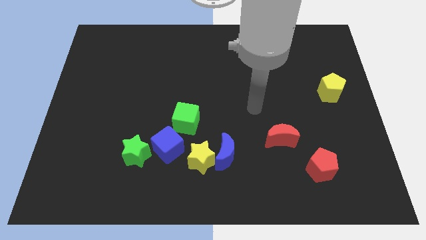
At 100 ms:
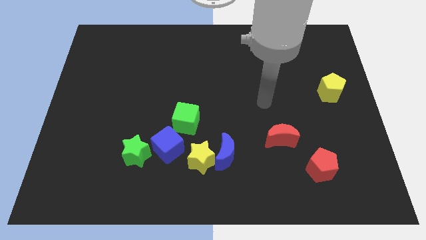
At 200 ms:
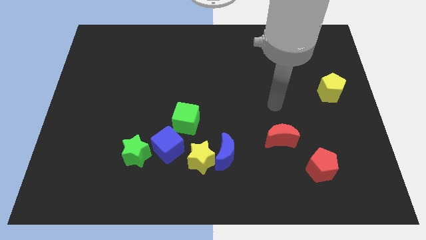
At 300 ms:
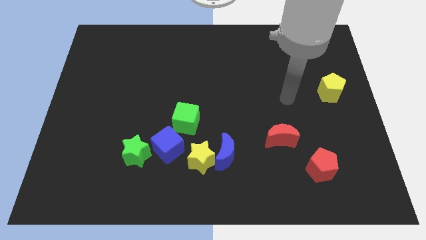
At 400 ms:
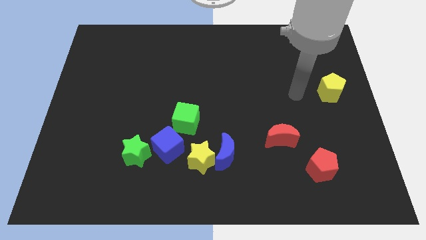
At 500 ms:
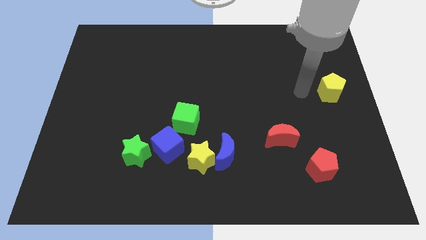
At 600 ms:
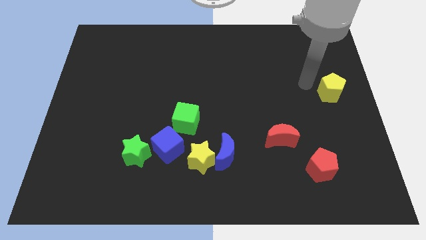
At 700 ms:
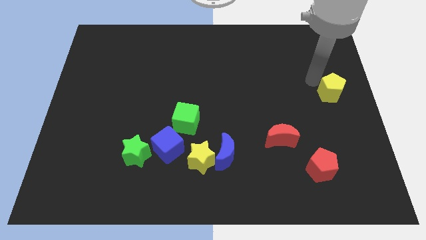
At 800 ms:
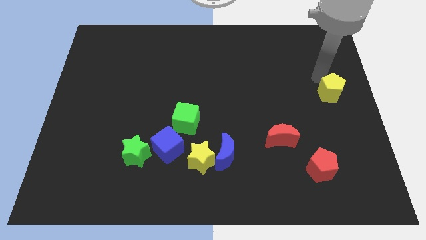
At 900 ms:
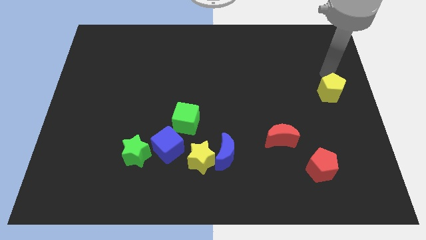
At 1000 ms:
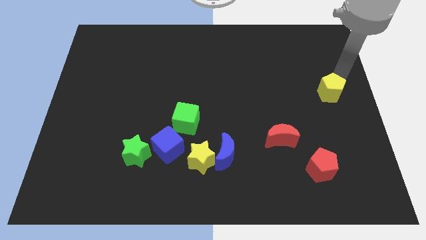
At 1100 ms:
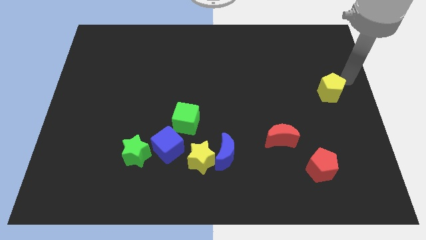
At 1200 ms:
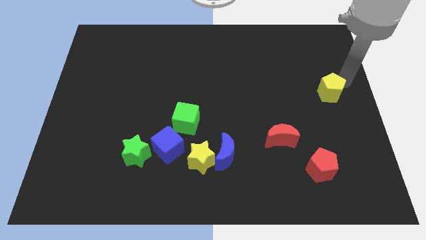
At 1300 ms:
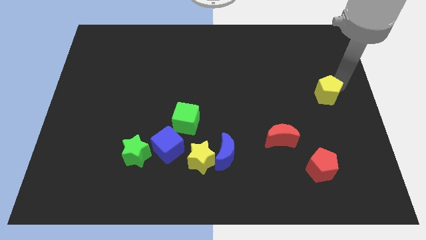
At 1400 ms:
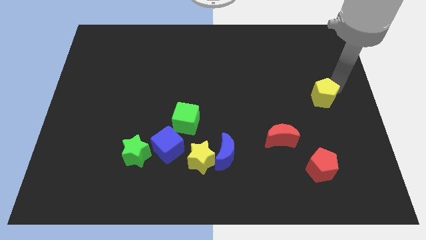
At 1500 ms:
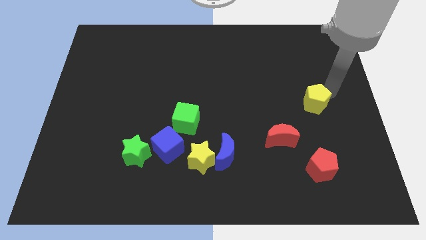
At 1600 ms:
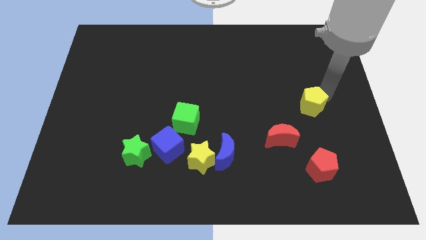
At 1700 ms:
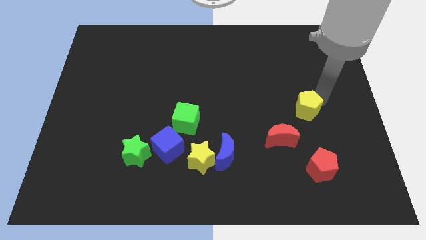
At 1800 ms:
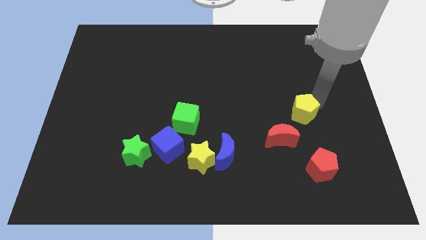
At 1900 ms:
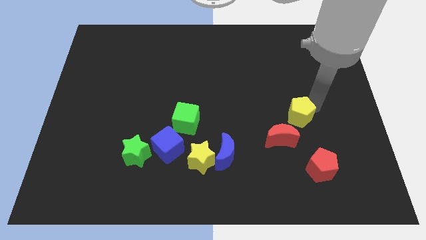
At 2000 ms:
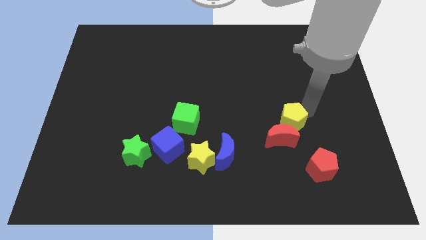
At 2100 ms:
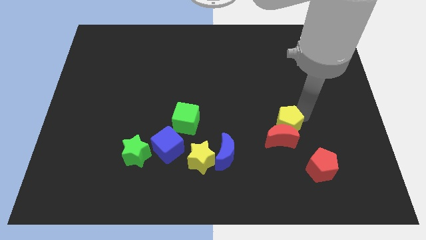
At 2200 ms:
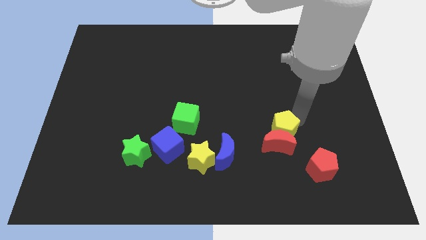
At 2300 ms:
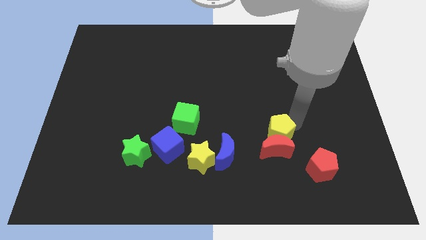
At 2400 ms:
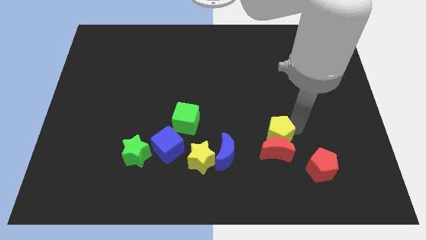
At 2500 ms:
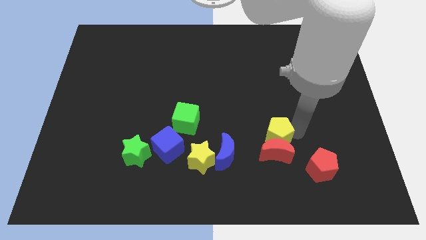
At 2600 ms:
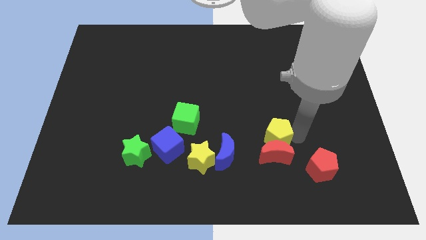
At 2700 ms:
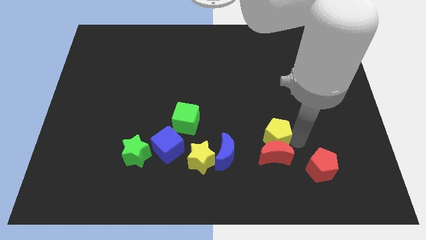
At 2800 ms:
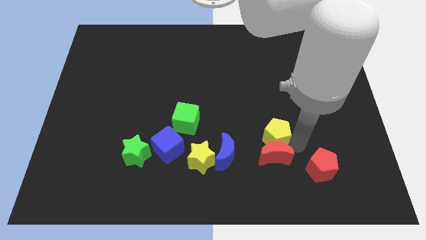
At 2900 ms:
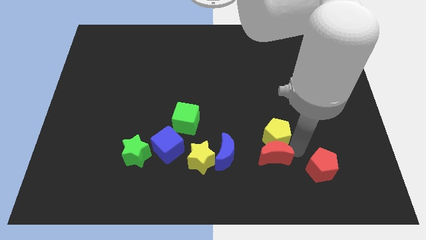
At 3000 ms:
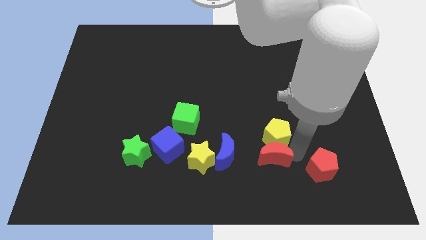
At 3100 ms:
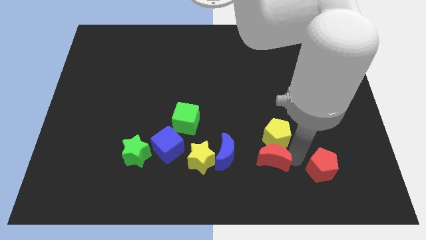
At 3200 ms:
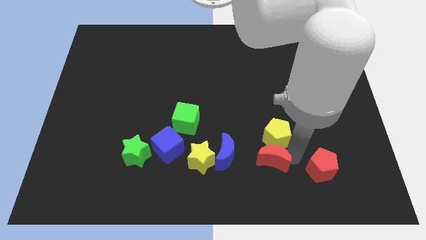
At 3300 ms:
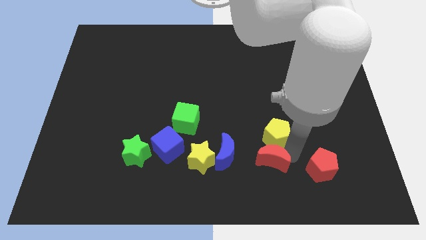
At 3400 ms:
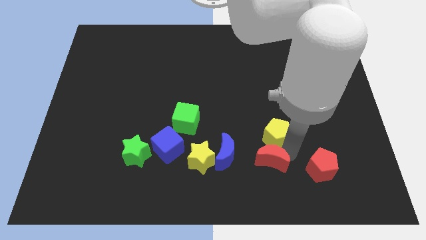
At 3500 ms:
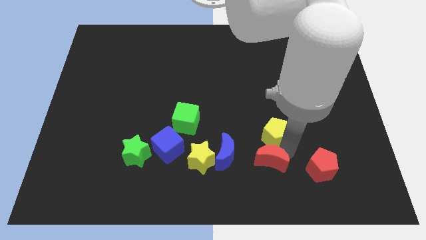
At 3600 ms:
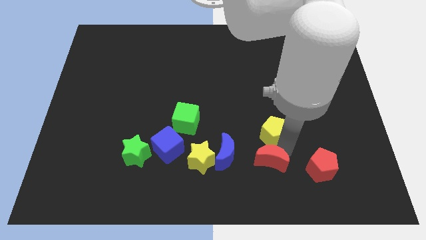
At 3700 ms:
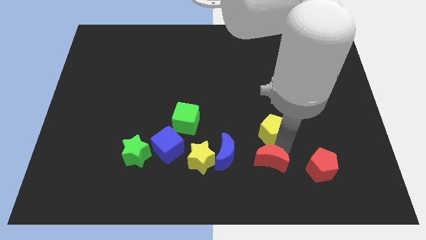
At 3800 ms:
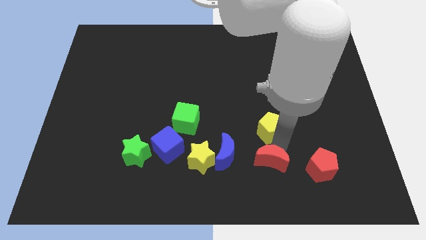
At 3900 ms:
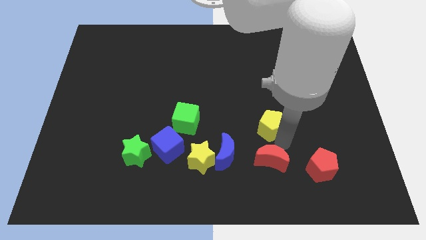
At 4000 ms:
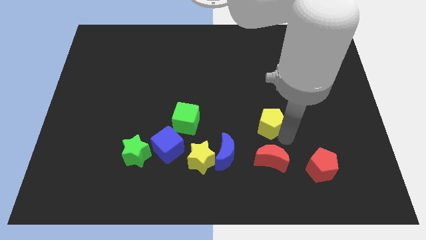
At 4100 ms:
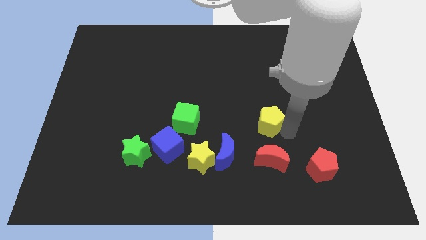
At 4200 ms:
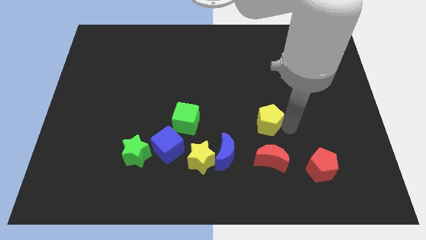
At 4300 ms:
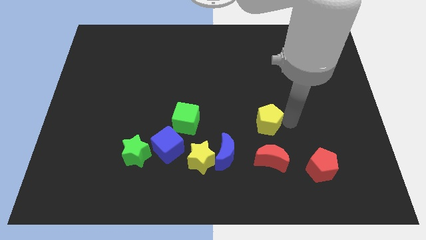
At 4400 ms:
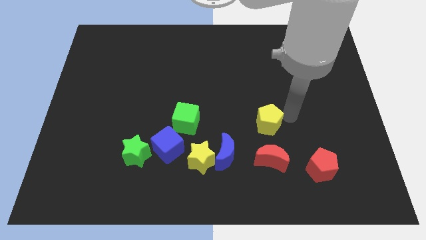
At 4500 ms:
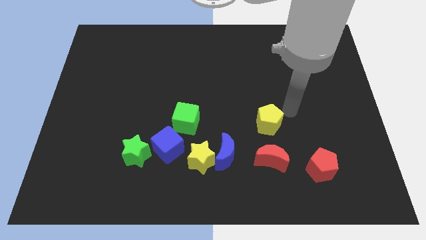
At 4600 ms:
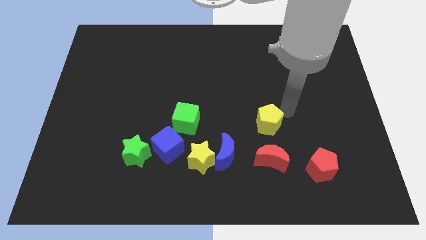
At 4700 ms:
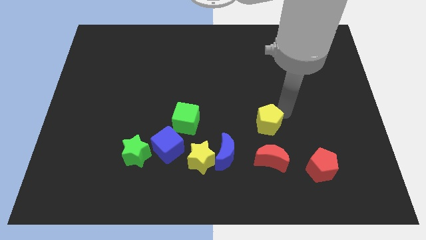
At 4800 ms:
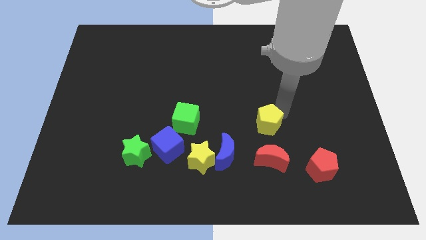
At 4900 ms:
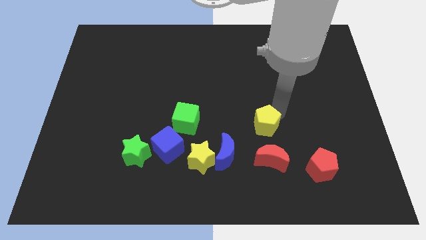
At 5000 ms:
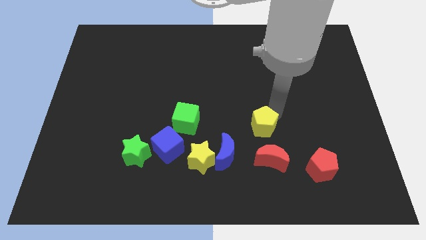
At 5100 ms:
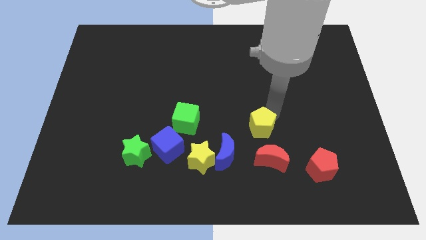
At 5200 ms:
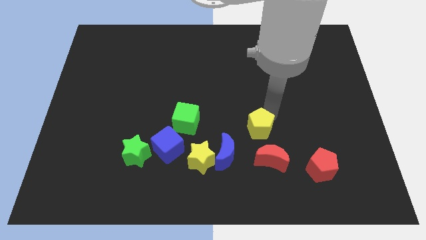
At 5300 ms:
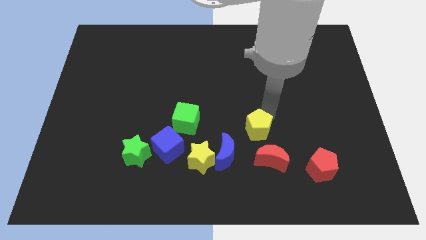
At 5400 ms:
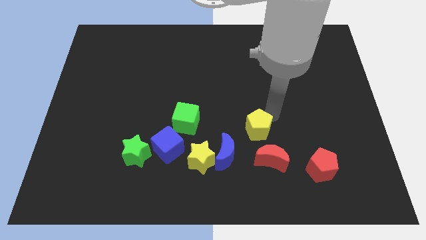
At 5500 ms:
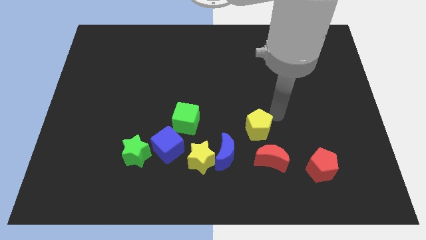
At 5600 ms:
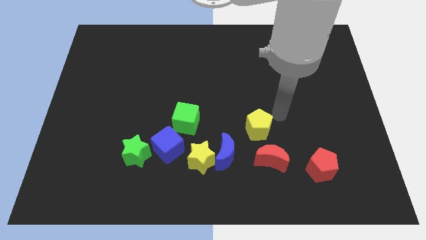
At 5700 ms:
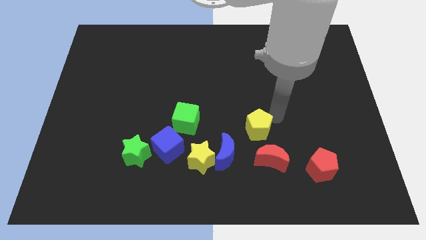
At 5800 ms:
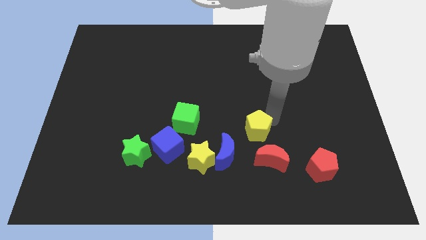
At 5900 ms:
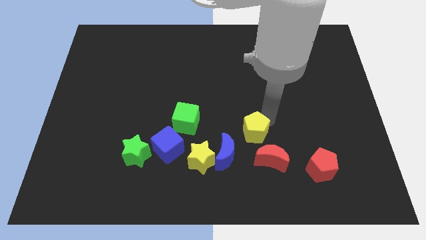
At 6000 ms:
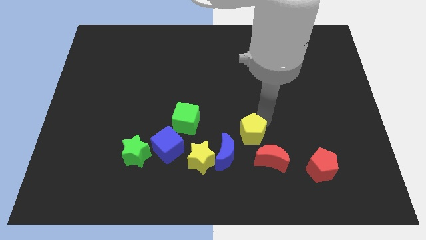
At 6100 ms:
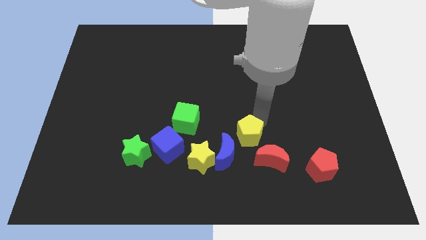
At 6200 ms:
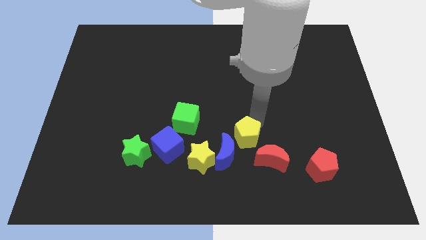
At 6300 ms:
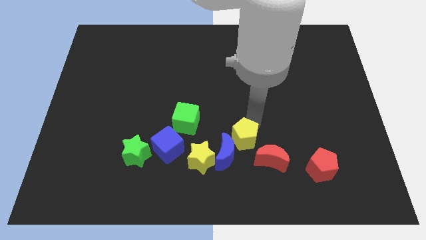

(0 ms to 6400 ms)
push the yellow pentagon towards the blue moon

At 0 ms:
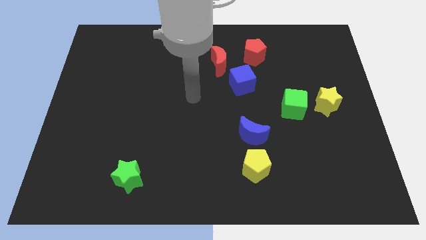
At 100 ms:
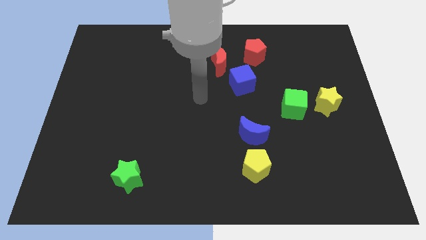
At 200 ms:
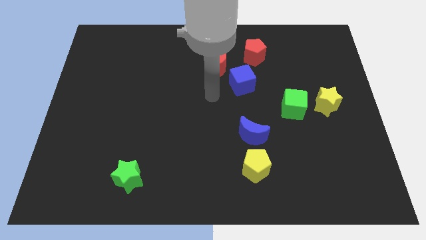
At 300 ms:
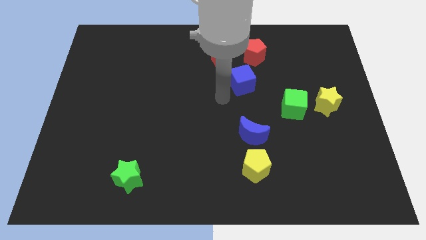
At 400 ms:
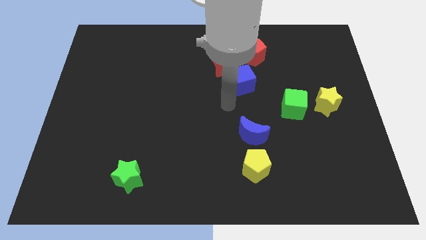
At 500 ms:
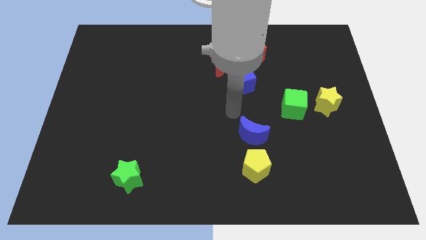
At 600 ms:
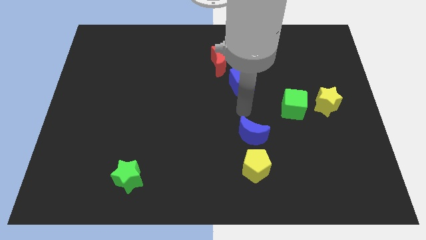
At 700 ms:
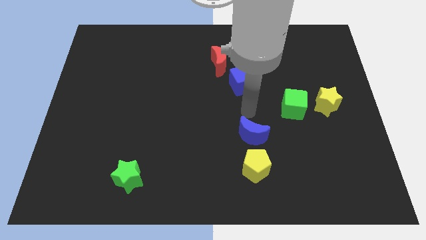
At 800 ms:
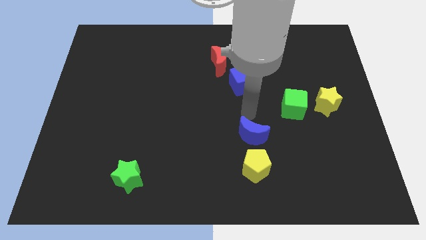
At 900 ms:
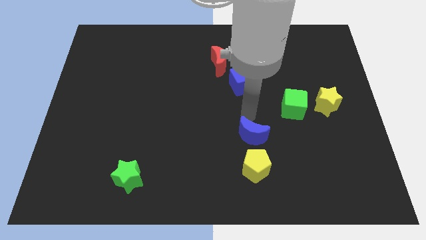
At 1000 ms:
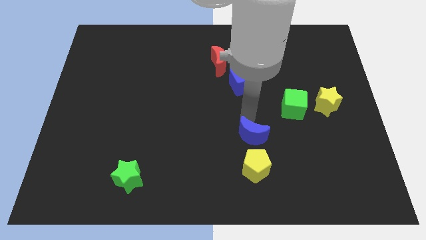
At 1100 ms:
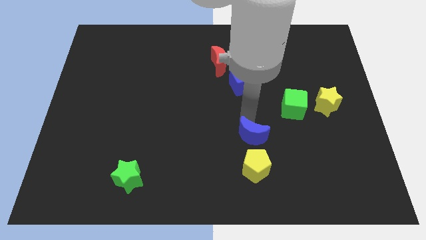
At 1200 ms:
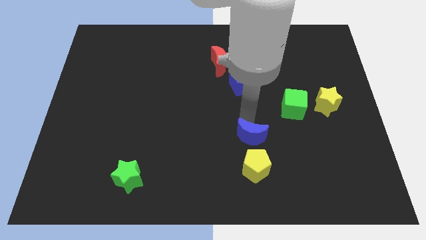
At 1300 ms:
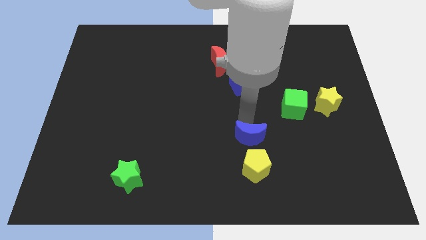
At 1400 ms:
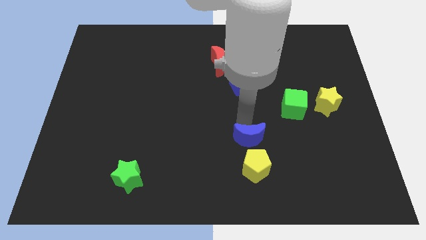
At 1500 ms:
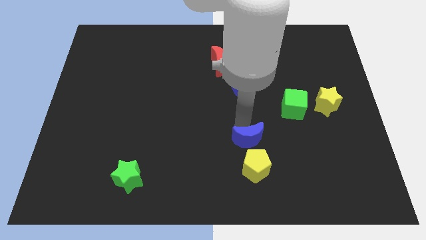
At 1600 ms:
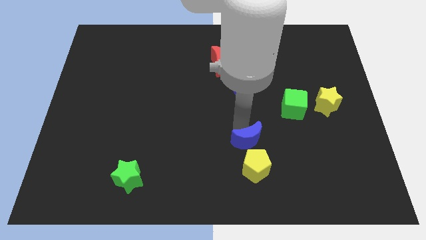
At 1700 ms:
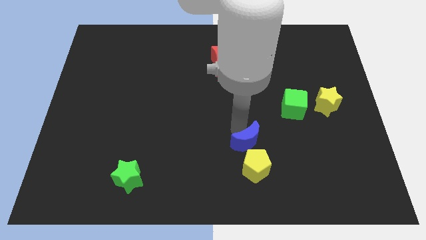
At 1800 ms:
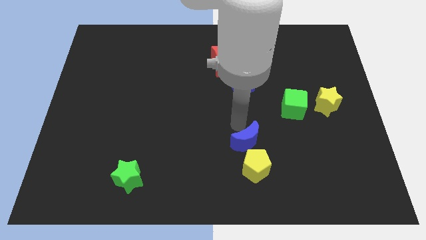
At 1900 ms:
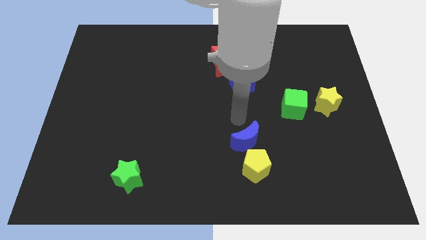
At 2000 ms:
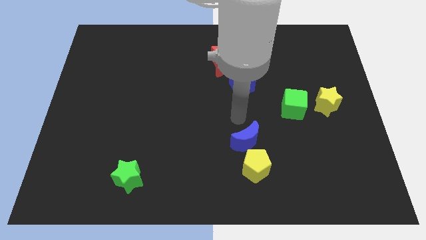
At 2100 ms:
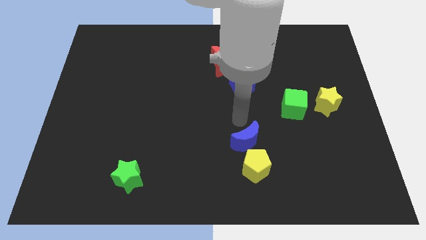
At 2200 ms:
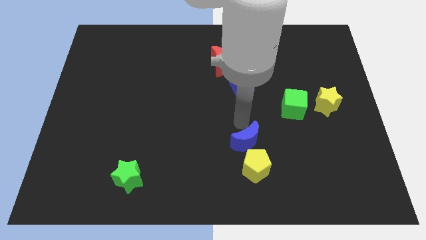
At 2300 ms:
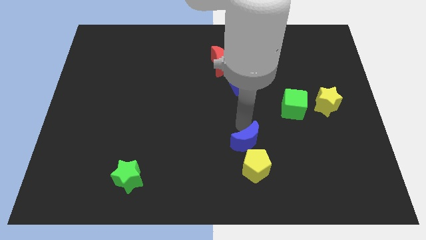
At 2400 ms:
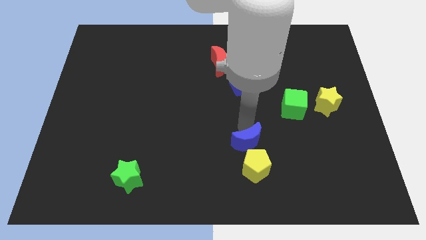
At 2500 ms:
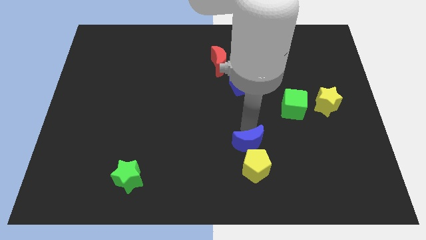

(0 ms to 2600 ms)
put the blue moon next to the yellow pentagon
